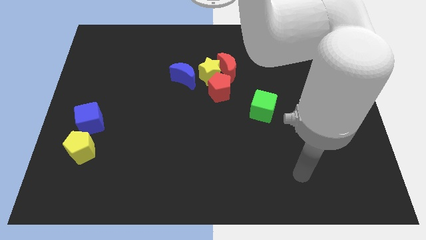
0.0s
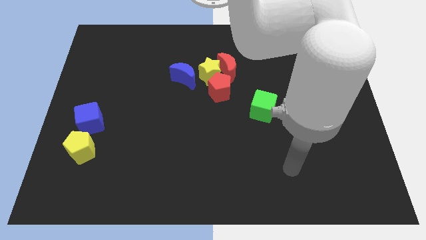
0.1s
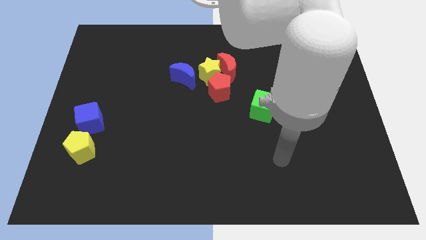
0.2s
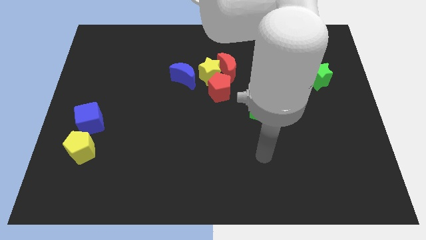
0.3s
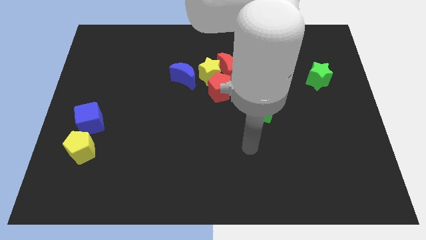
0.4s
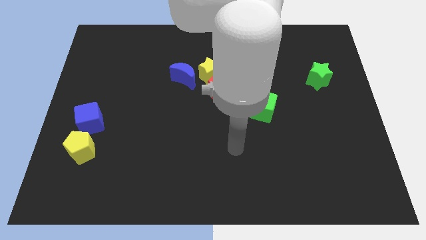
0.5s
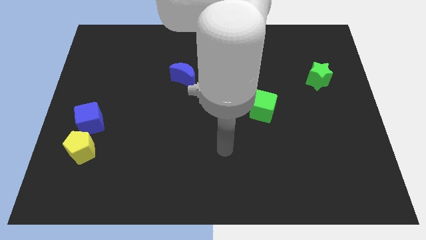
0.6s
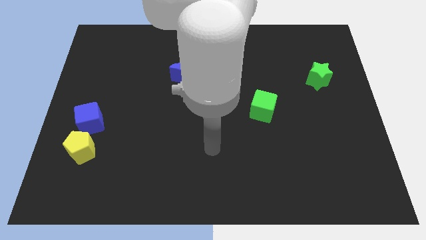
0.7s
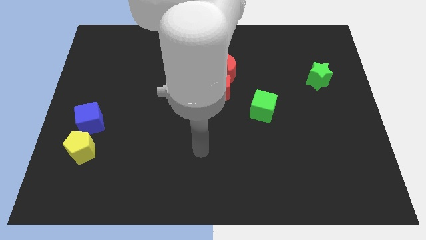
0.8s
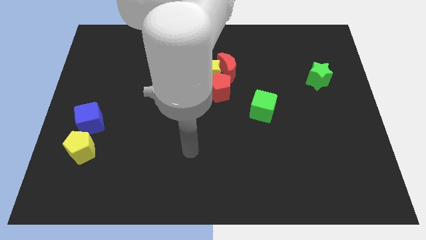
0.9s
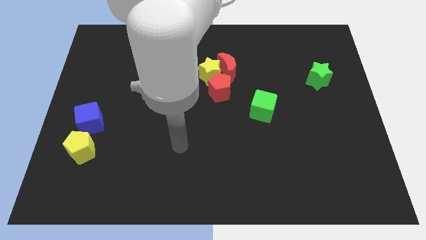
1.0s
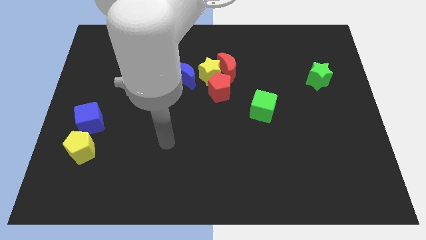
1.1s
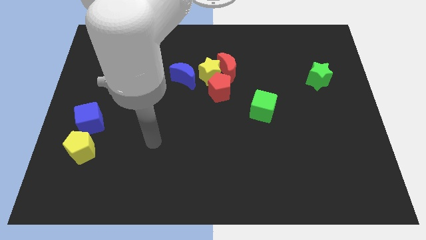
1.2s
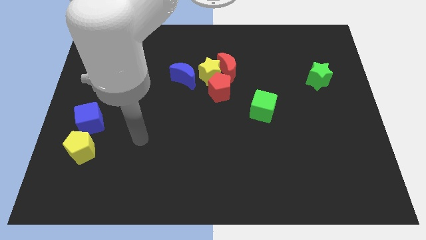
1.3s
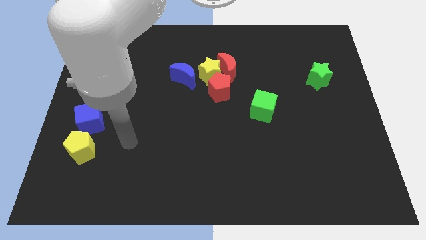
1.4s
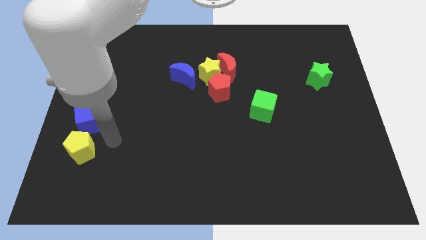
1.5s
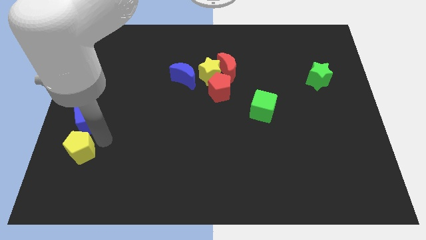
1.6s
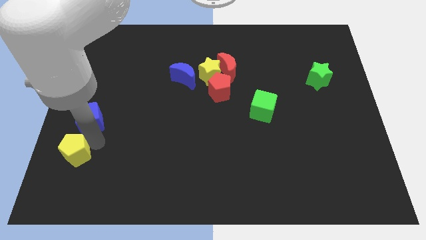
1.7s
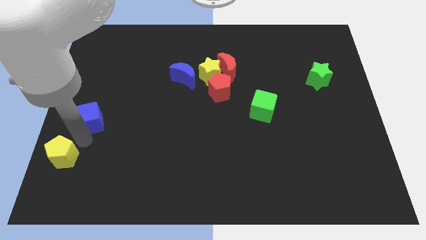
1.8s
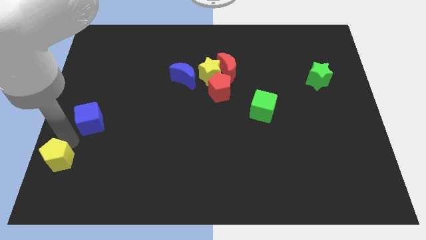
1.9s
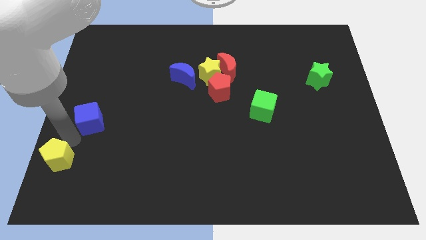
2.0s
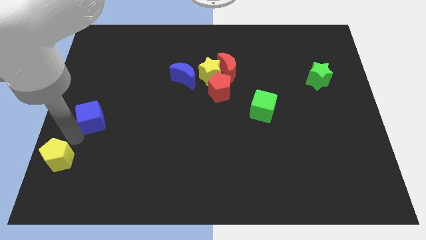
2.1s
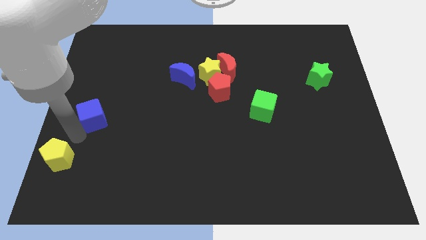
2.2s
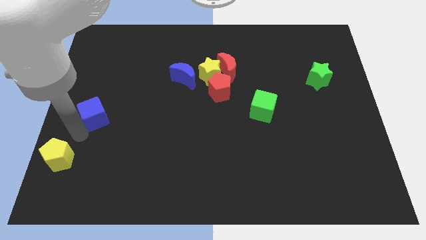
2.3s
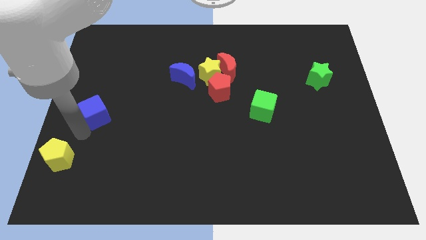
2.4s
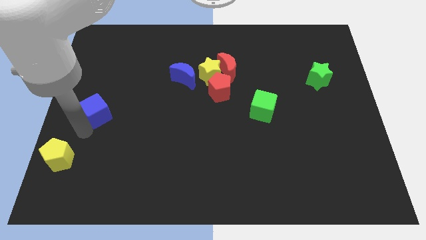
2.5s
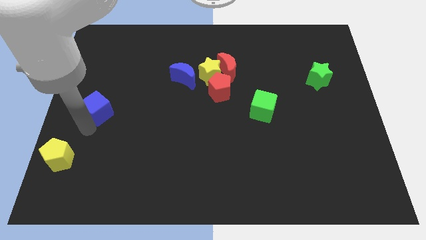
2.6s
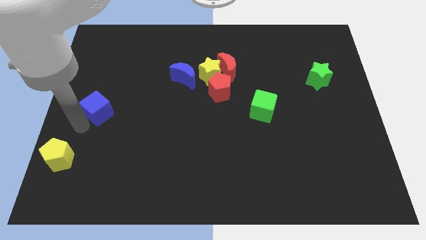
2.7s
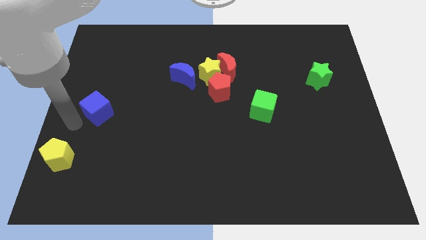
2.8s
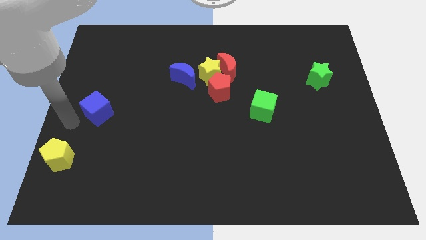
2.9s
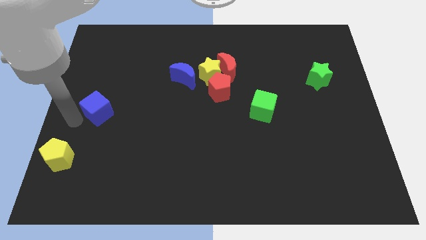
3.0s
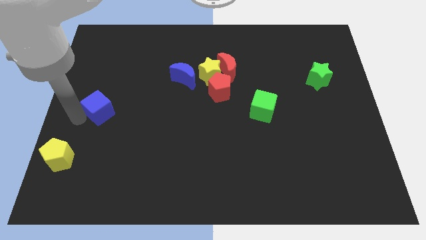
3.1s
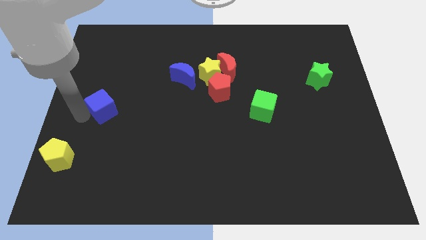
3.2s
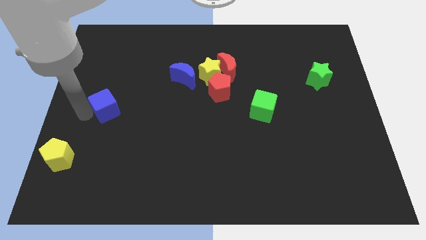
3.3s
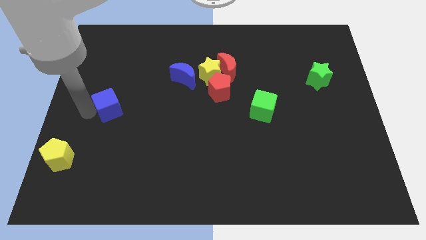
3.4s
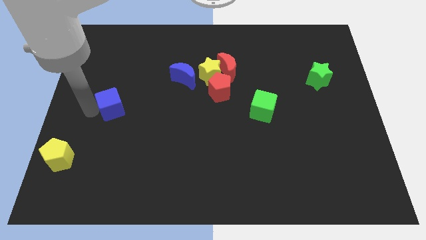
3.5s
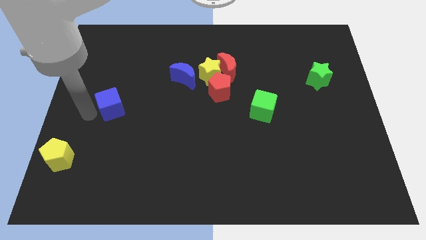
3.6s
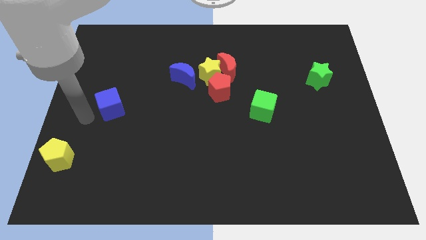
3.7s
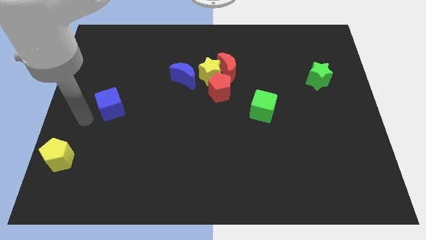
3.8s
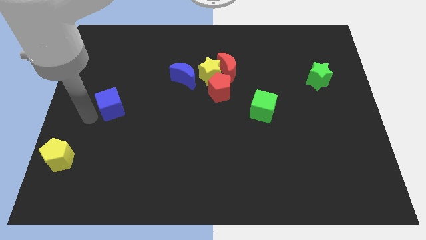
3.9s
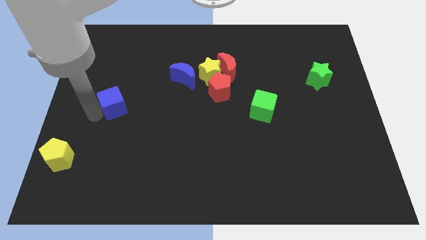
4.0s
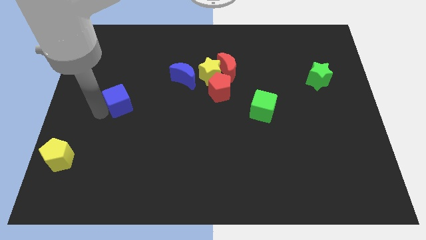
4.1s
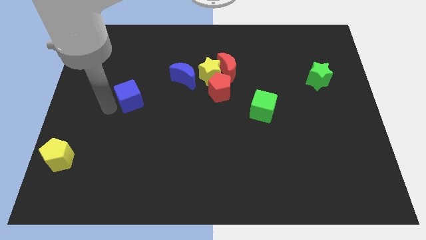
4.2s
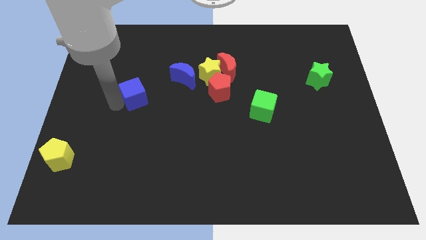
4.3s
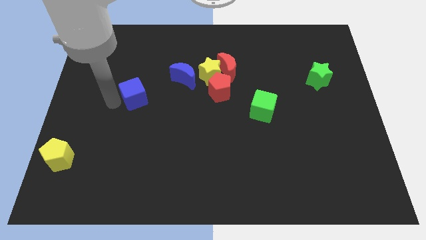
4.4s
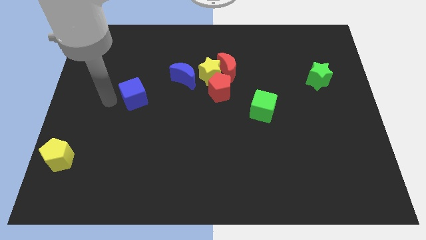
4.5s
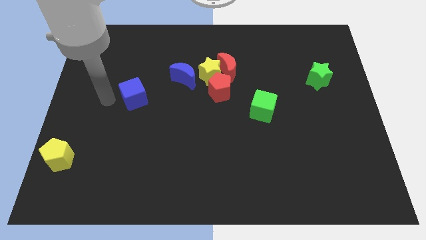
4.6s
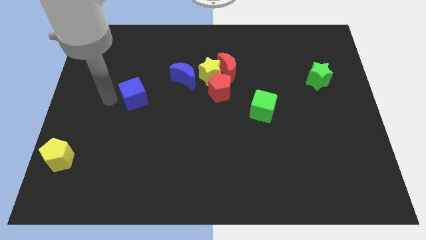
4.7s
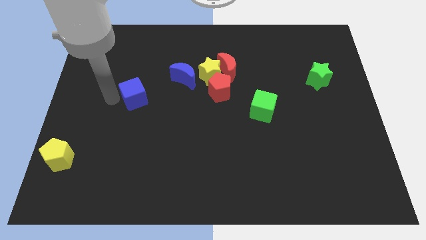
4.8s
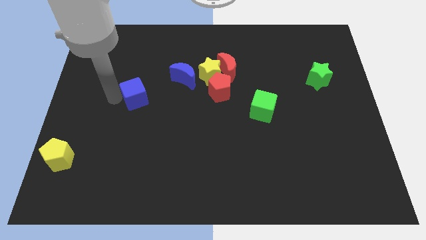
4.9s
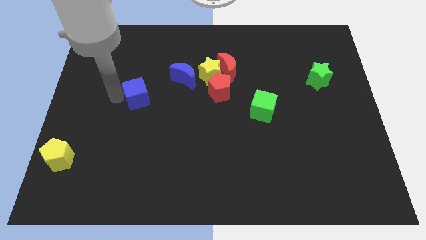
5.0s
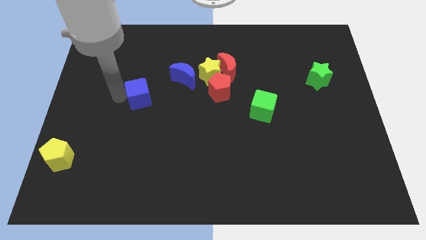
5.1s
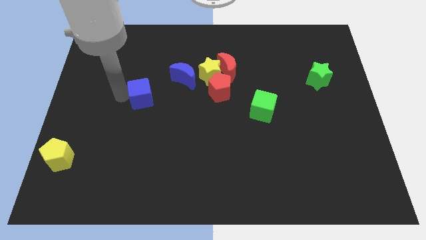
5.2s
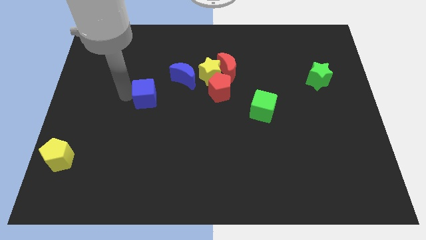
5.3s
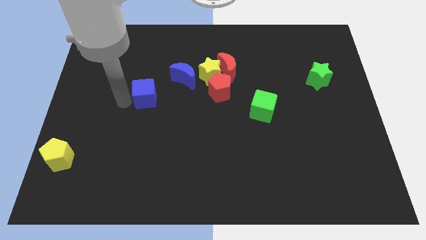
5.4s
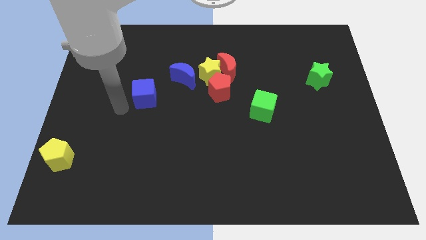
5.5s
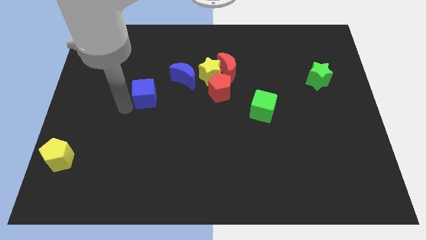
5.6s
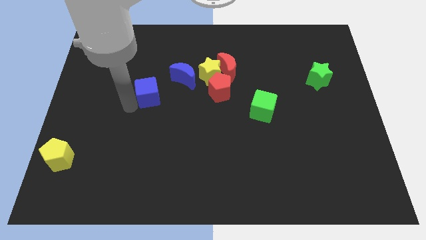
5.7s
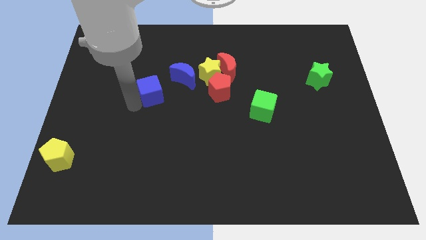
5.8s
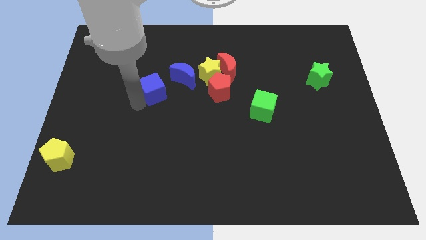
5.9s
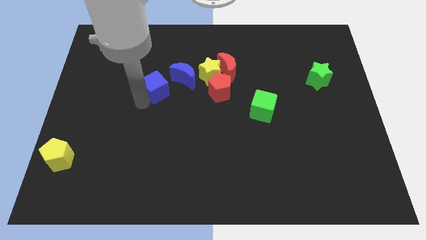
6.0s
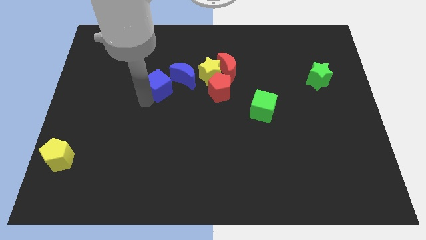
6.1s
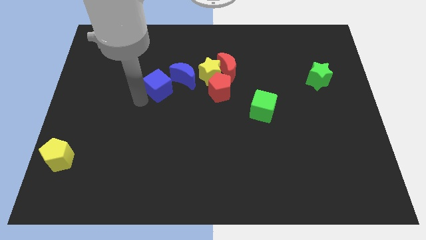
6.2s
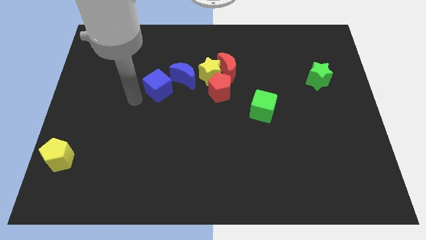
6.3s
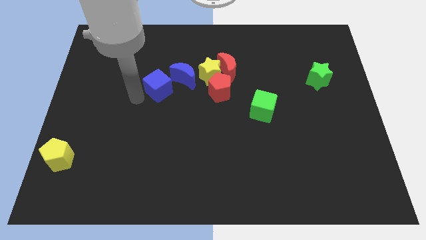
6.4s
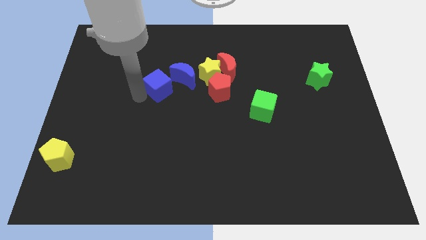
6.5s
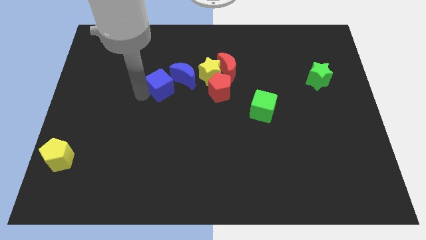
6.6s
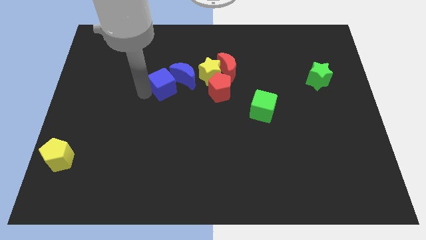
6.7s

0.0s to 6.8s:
put the blue cube next to the blue moon

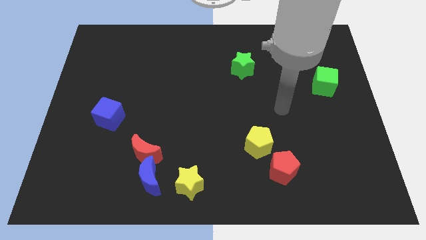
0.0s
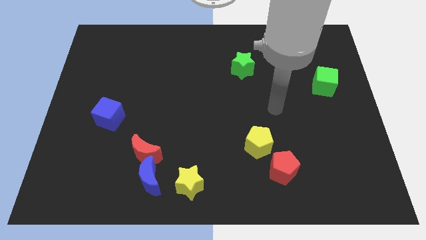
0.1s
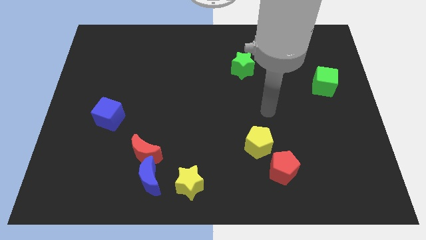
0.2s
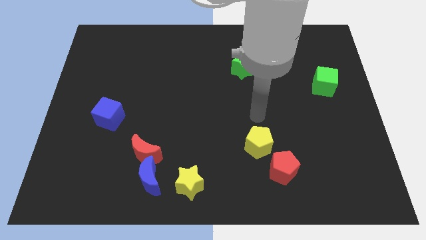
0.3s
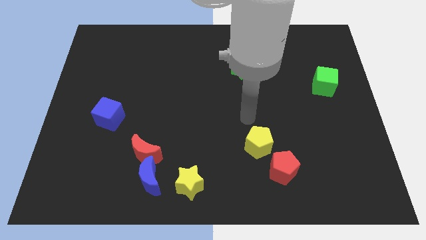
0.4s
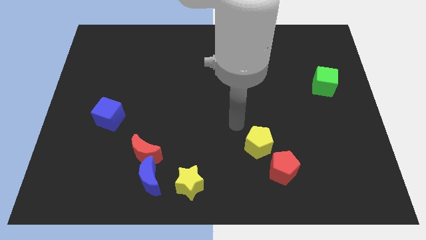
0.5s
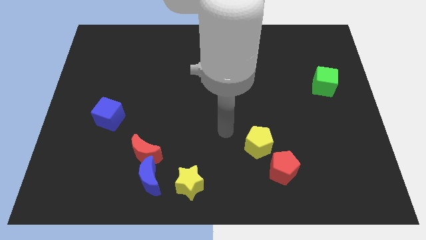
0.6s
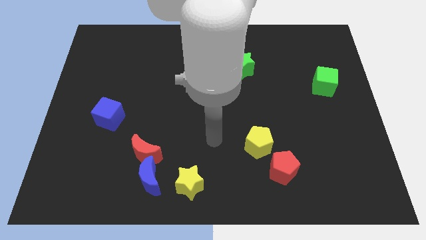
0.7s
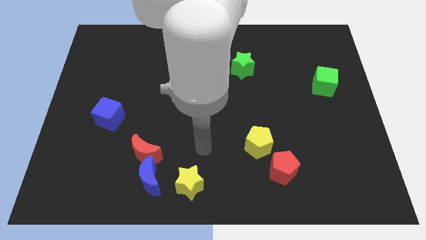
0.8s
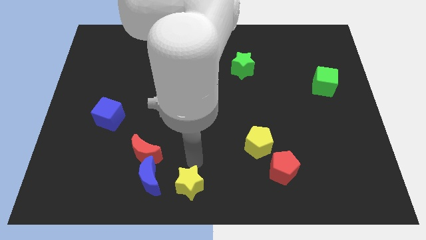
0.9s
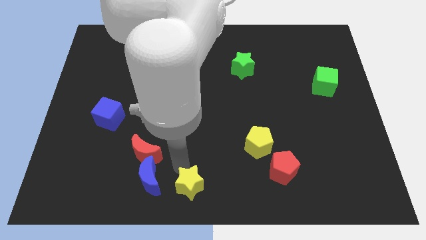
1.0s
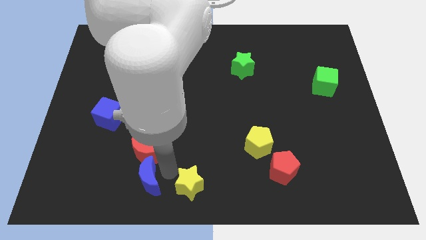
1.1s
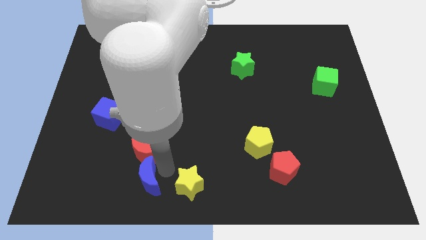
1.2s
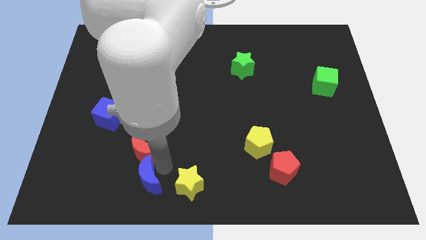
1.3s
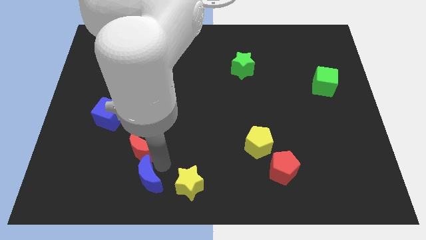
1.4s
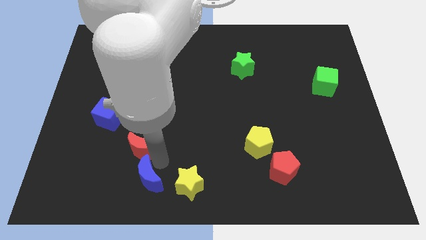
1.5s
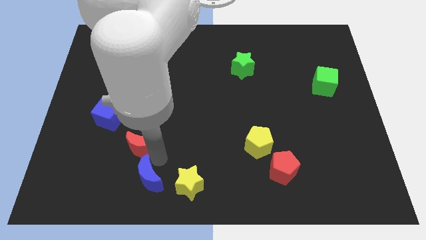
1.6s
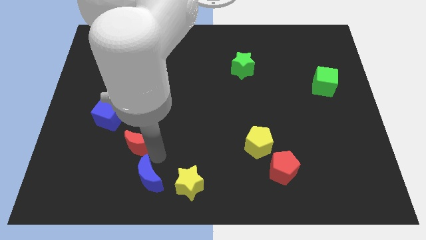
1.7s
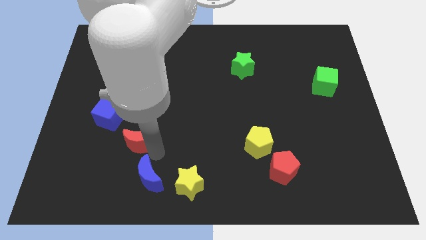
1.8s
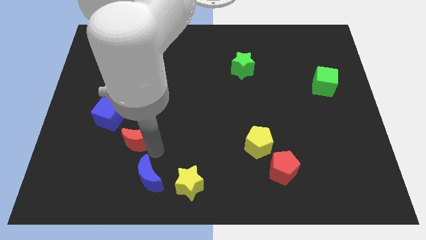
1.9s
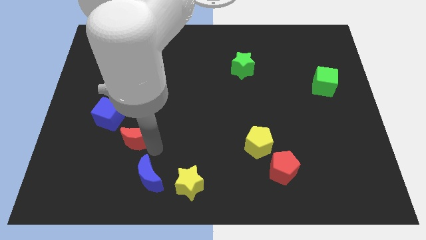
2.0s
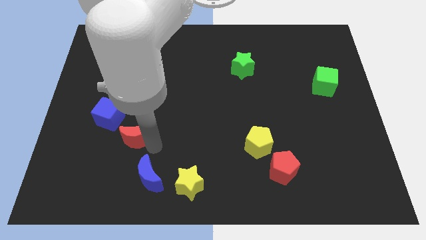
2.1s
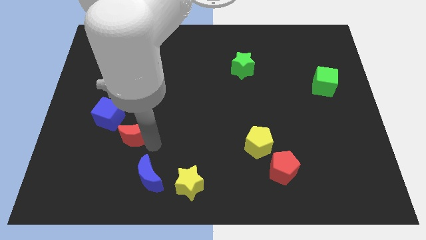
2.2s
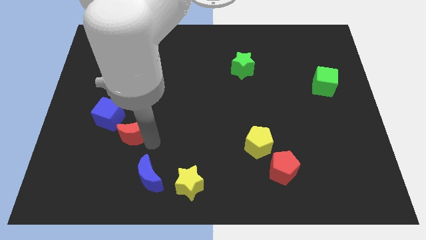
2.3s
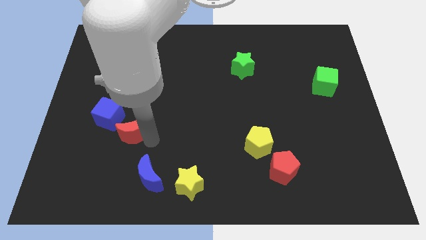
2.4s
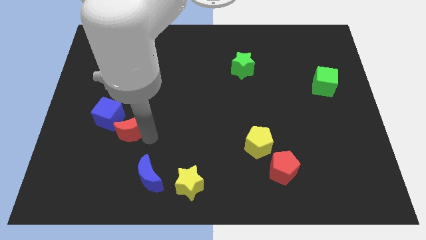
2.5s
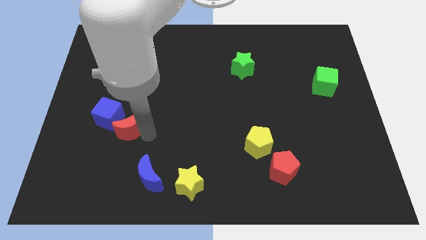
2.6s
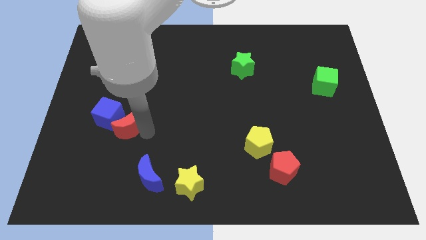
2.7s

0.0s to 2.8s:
move the red moon towards the blue cube
